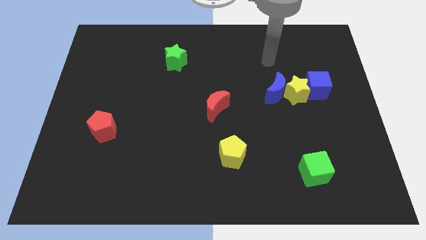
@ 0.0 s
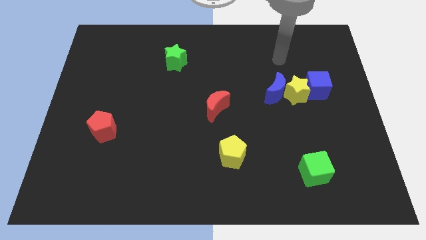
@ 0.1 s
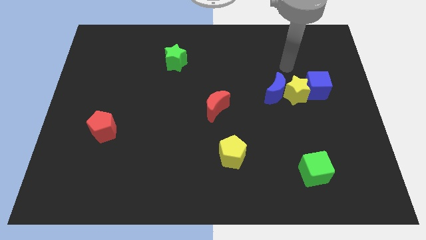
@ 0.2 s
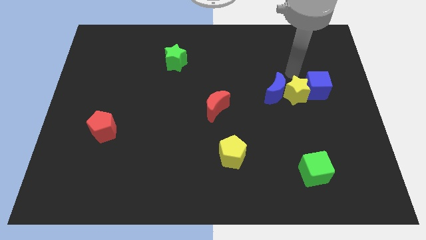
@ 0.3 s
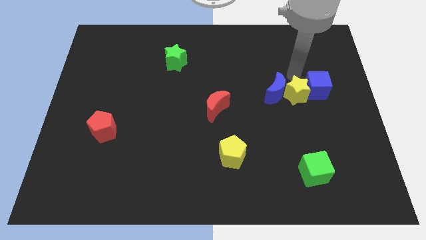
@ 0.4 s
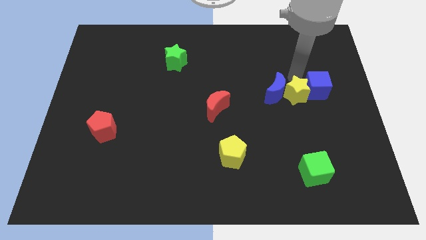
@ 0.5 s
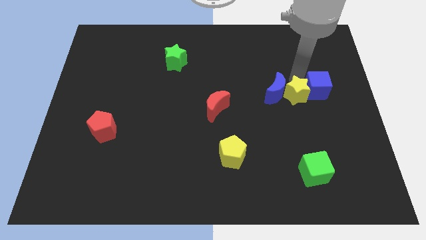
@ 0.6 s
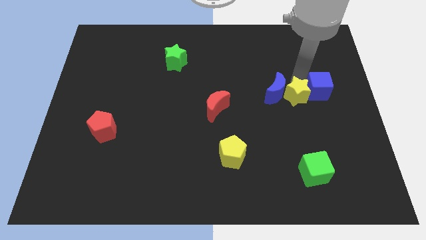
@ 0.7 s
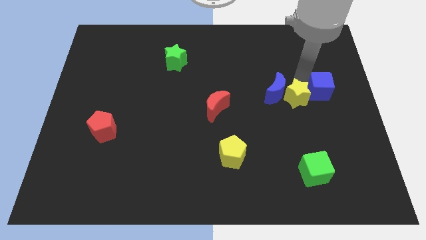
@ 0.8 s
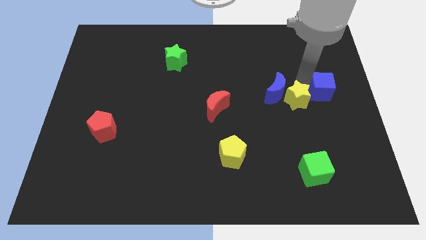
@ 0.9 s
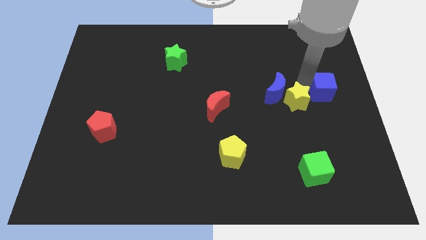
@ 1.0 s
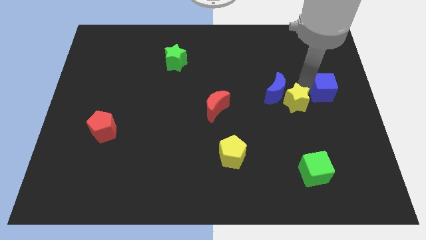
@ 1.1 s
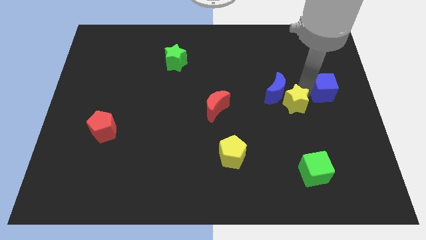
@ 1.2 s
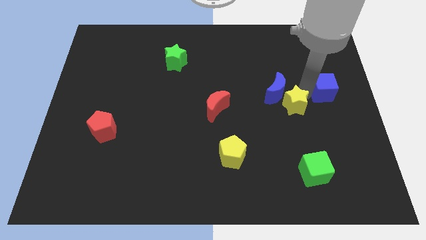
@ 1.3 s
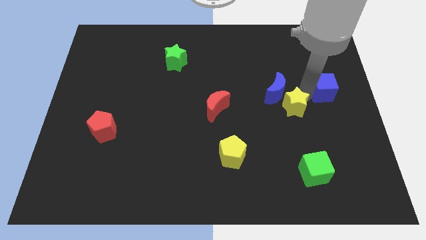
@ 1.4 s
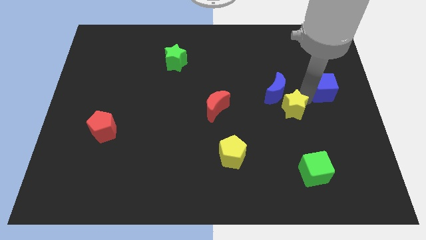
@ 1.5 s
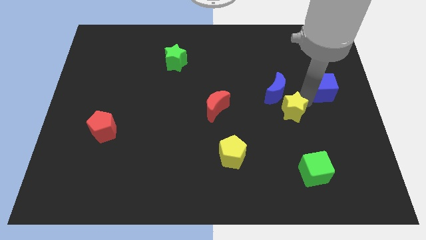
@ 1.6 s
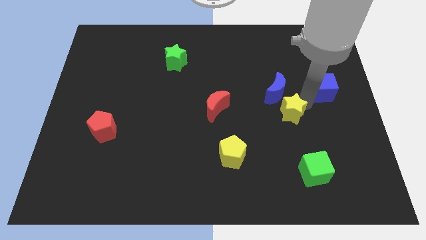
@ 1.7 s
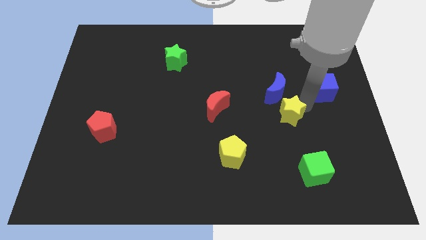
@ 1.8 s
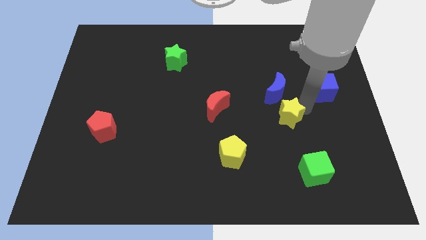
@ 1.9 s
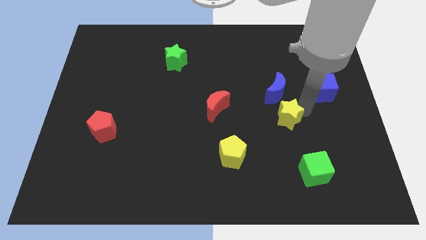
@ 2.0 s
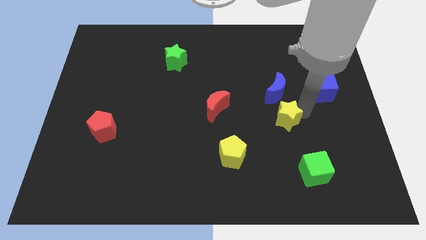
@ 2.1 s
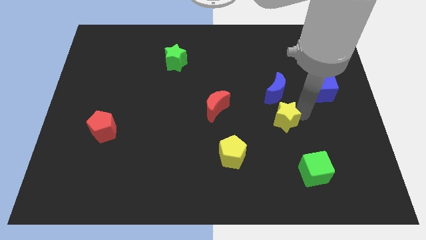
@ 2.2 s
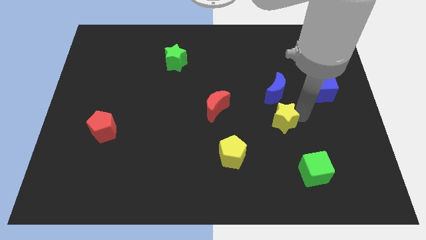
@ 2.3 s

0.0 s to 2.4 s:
pull the yellow star apart from the blue moon and blue cube

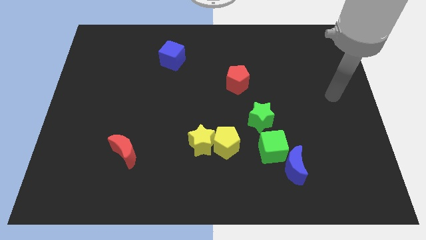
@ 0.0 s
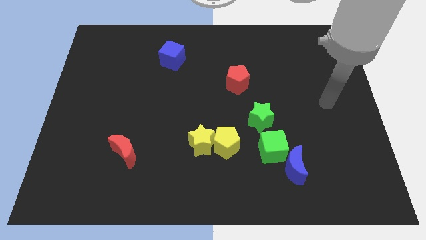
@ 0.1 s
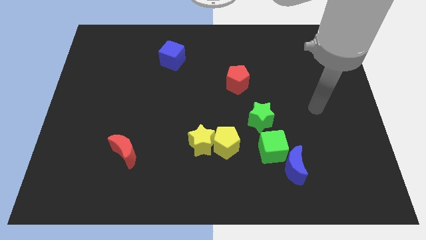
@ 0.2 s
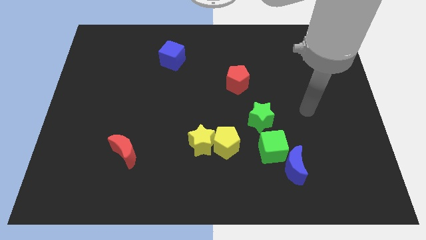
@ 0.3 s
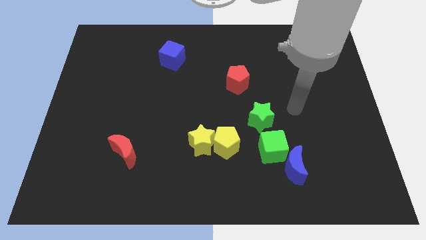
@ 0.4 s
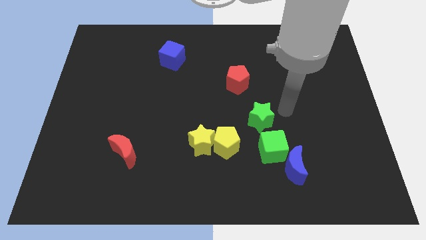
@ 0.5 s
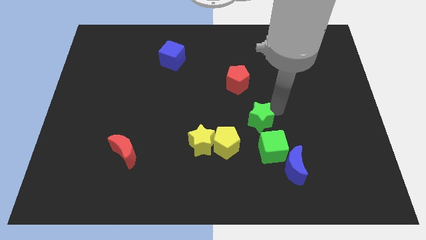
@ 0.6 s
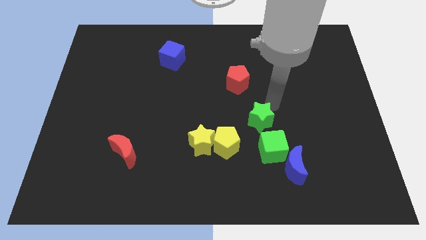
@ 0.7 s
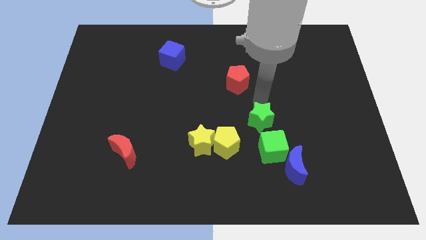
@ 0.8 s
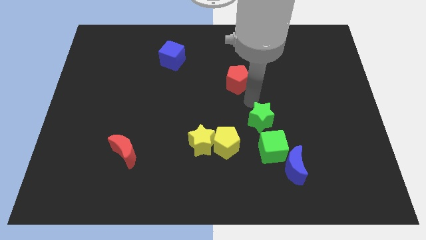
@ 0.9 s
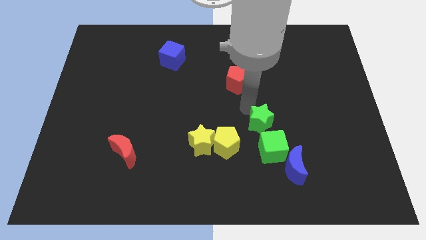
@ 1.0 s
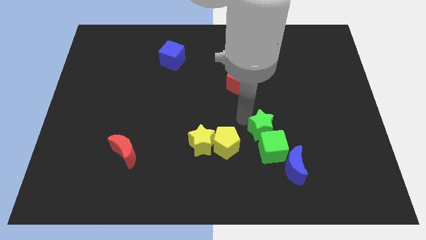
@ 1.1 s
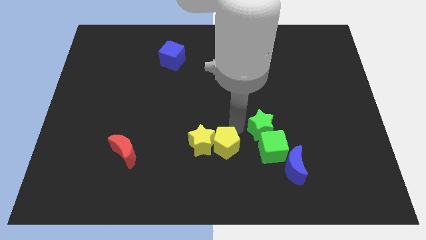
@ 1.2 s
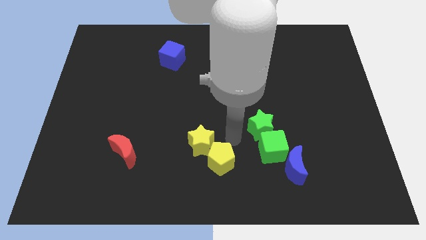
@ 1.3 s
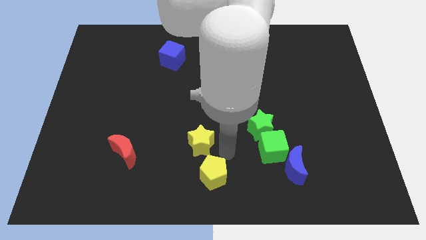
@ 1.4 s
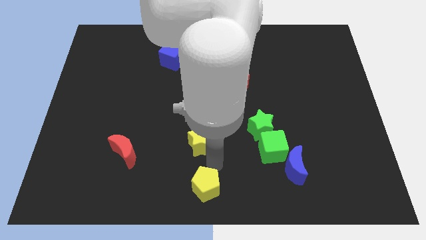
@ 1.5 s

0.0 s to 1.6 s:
move the yellow star away from the yellow pentagon

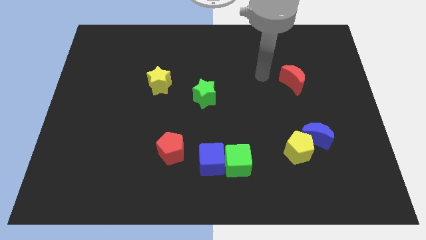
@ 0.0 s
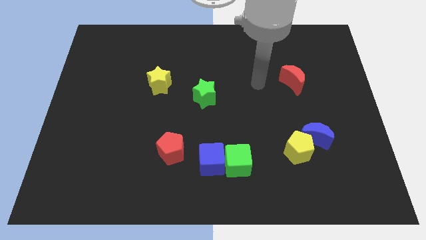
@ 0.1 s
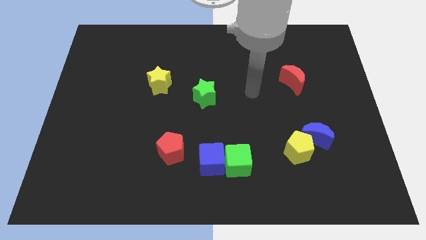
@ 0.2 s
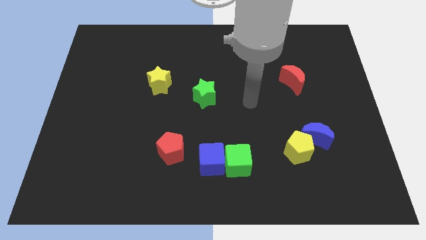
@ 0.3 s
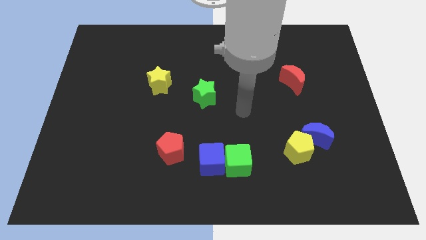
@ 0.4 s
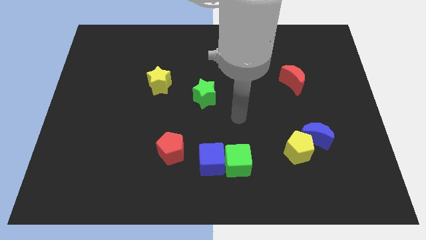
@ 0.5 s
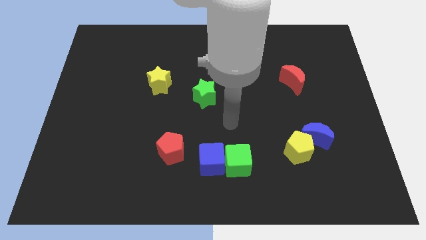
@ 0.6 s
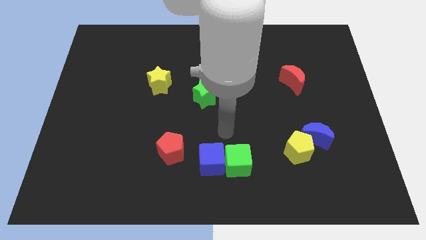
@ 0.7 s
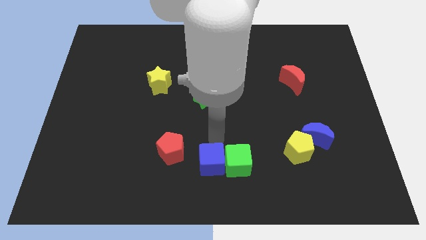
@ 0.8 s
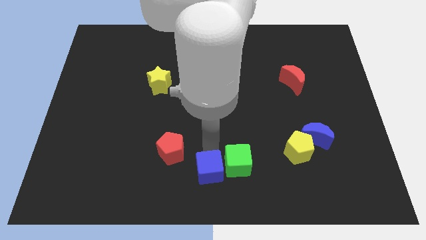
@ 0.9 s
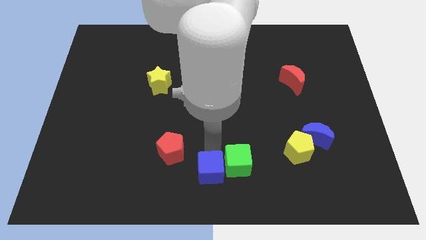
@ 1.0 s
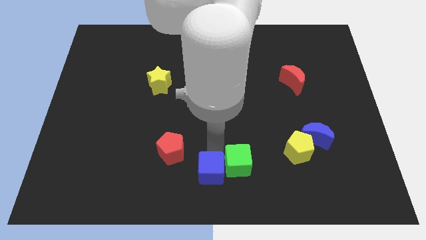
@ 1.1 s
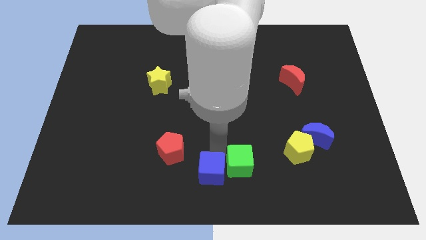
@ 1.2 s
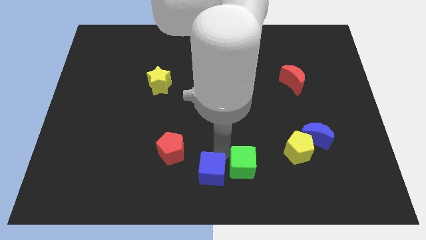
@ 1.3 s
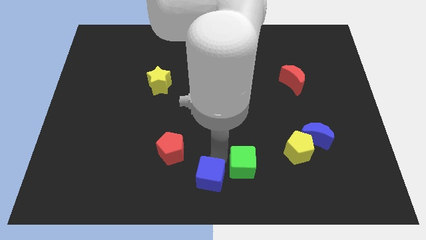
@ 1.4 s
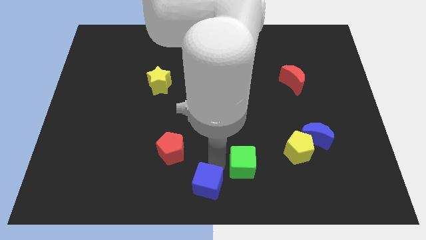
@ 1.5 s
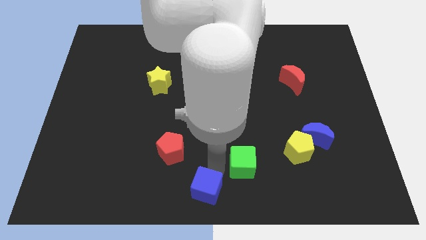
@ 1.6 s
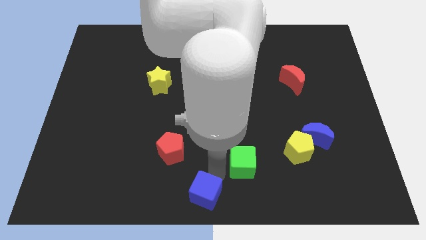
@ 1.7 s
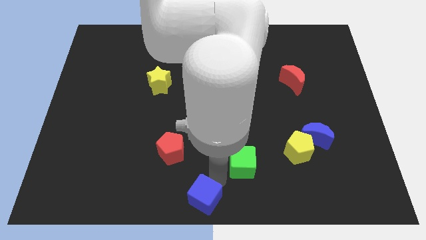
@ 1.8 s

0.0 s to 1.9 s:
separate the green cube from the blue cube

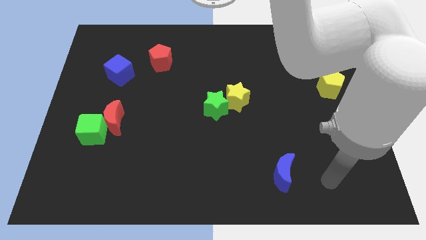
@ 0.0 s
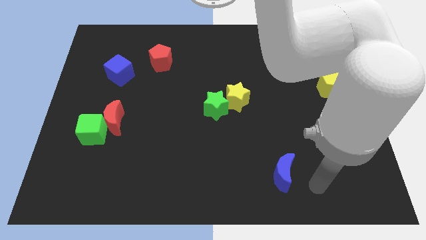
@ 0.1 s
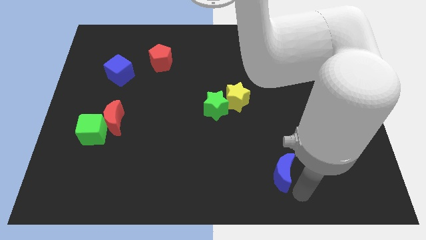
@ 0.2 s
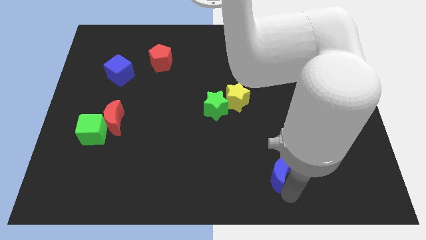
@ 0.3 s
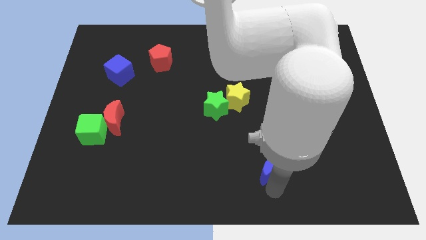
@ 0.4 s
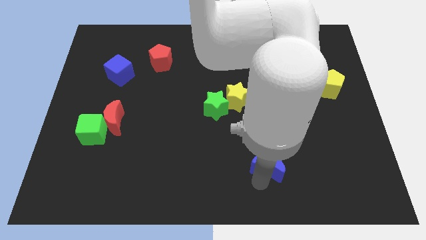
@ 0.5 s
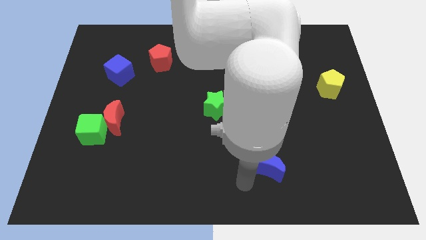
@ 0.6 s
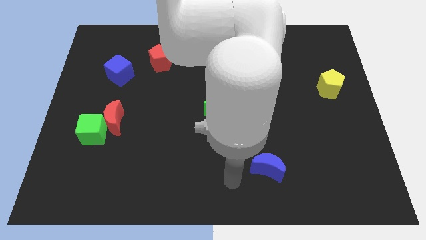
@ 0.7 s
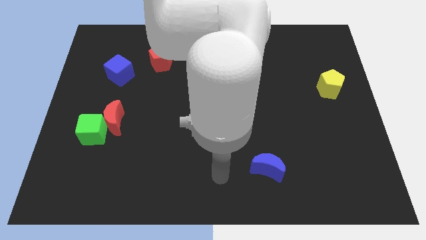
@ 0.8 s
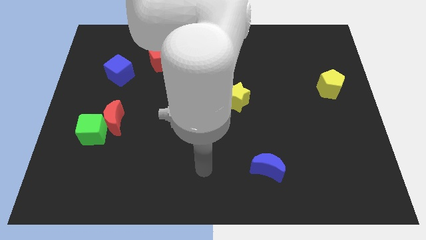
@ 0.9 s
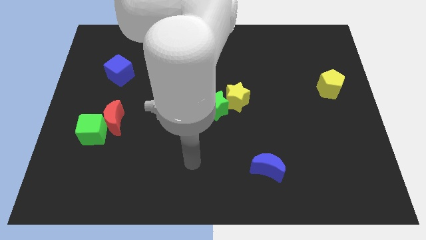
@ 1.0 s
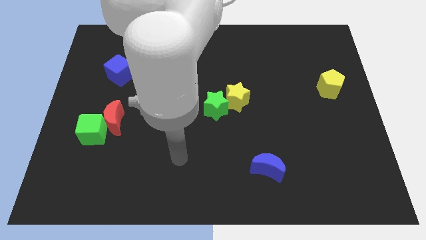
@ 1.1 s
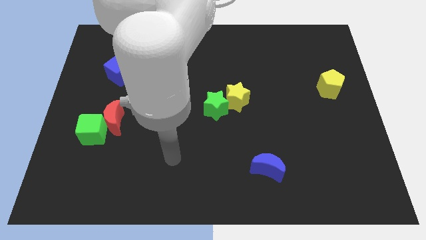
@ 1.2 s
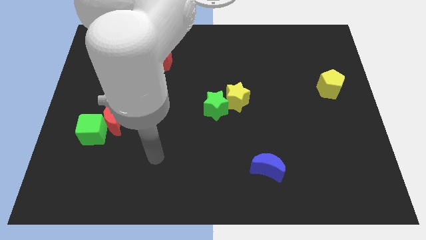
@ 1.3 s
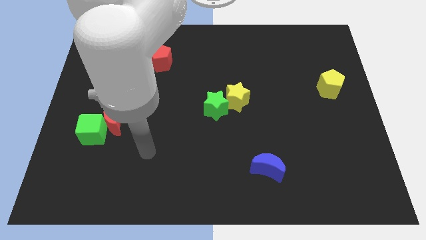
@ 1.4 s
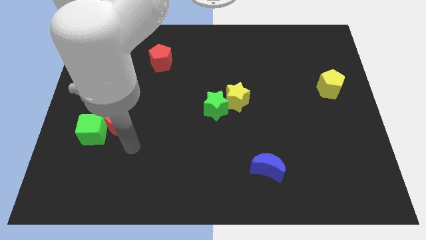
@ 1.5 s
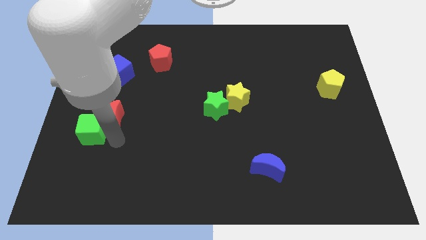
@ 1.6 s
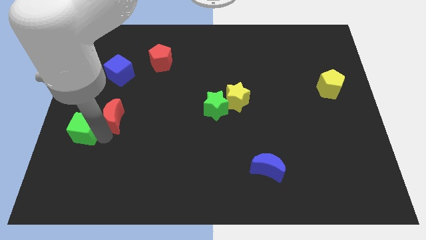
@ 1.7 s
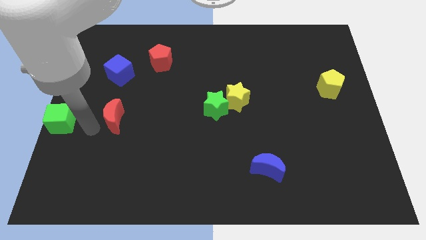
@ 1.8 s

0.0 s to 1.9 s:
move the red moon away from the green cube

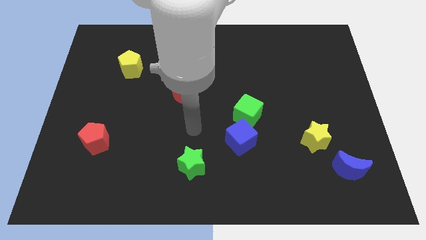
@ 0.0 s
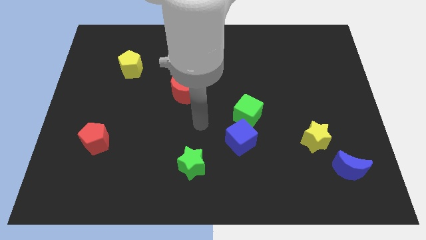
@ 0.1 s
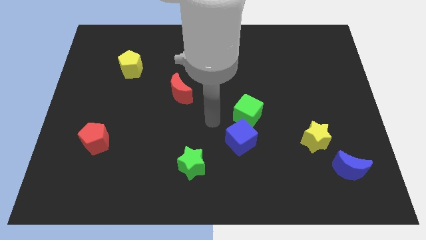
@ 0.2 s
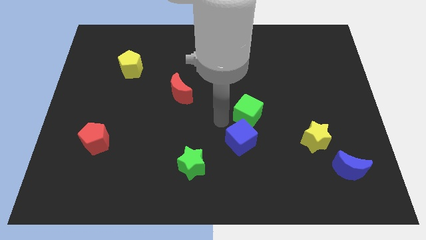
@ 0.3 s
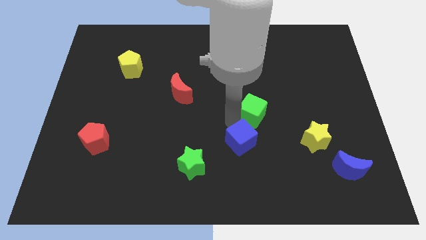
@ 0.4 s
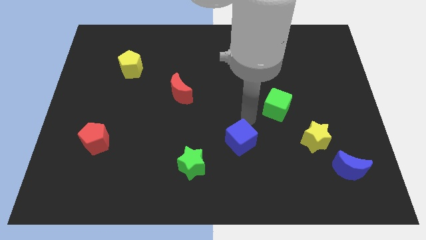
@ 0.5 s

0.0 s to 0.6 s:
pull the blue cube apart from the green cube

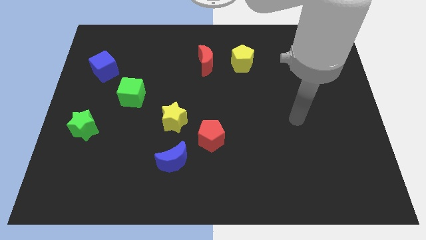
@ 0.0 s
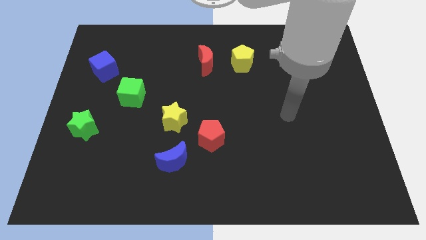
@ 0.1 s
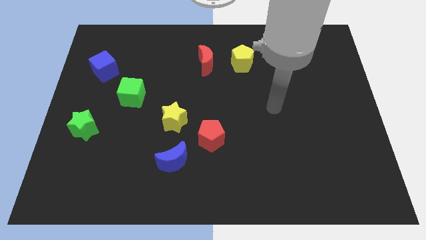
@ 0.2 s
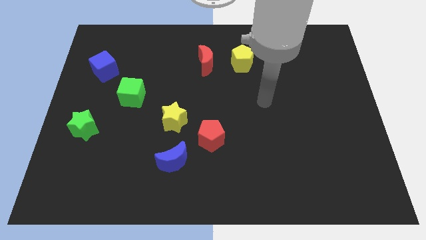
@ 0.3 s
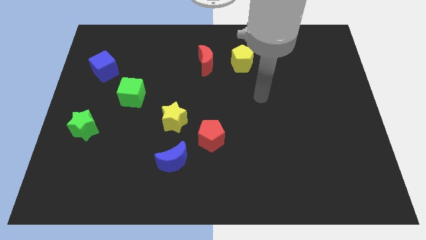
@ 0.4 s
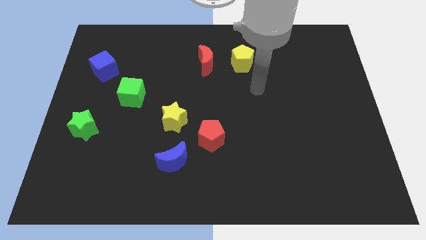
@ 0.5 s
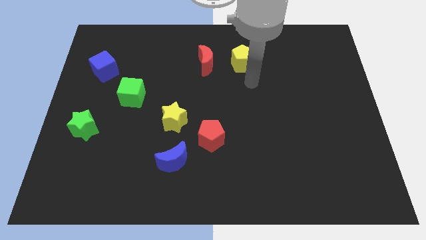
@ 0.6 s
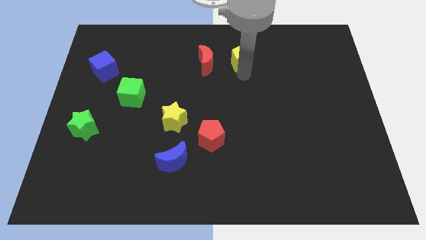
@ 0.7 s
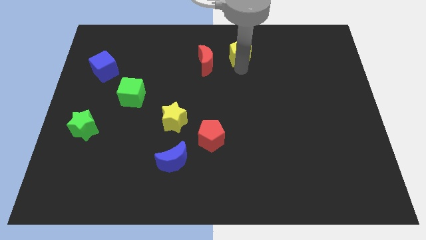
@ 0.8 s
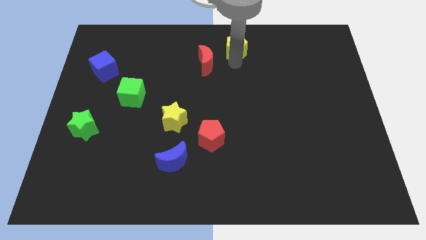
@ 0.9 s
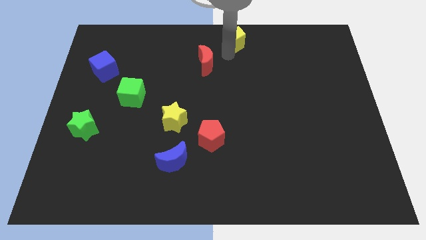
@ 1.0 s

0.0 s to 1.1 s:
separate the red moon from the yellow pentagon

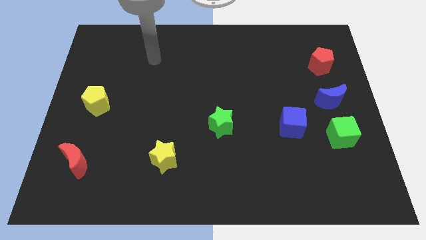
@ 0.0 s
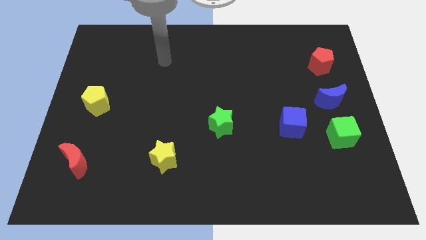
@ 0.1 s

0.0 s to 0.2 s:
move the blue moon away from the green cube
